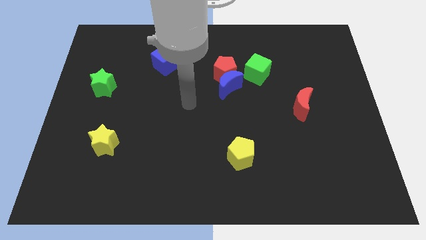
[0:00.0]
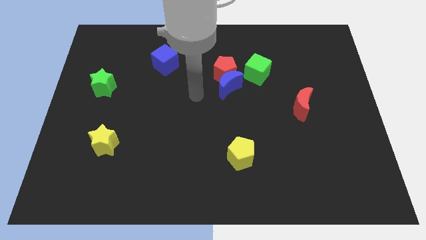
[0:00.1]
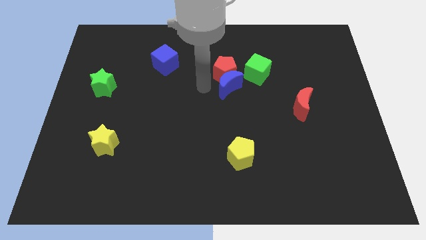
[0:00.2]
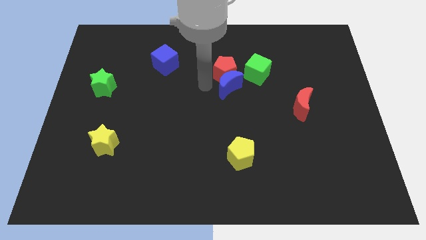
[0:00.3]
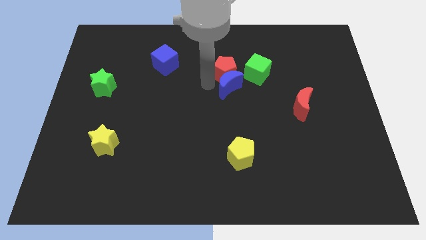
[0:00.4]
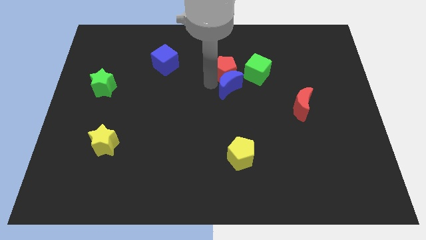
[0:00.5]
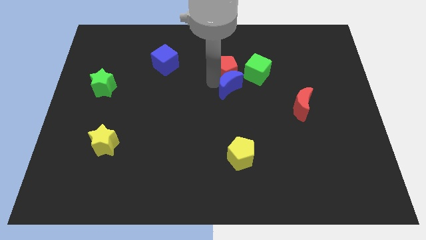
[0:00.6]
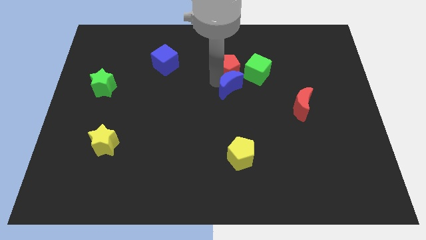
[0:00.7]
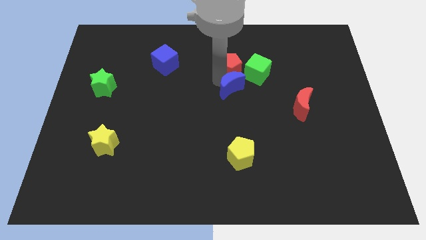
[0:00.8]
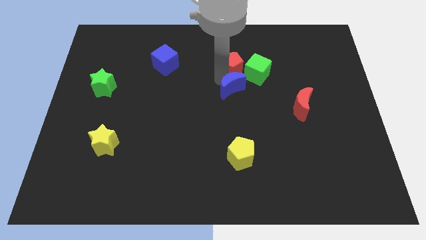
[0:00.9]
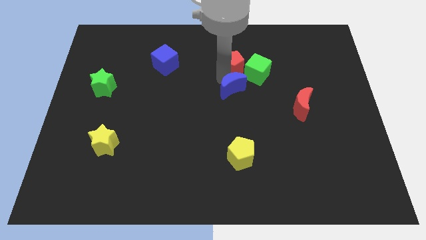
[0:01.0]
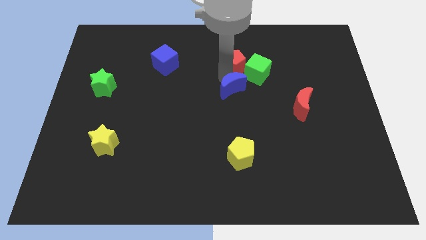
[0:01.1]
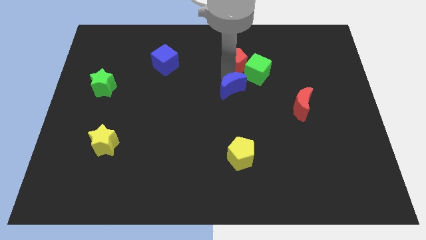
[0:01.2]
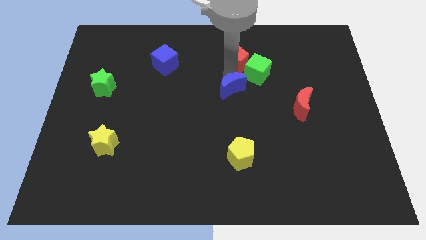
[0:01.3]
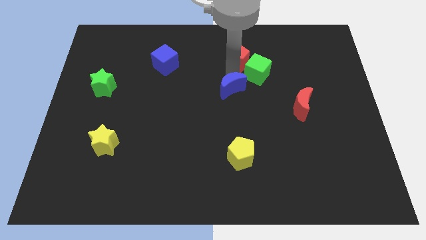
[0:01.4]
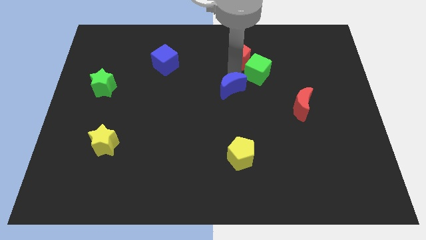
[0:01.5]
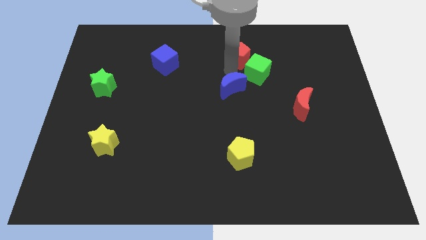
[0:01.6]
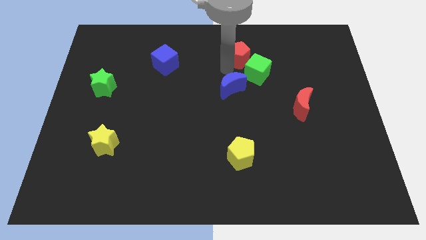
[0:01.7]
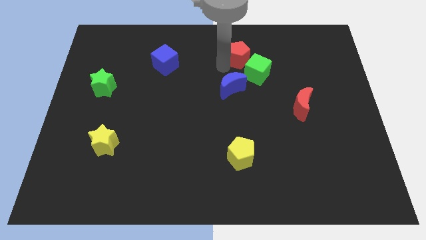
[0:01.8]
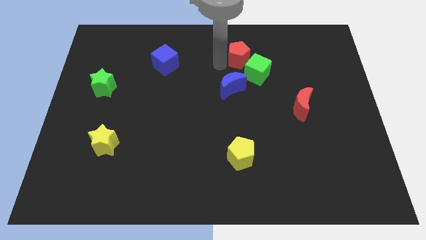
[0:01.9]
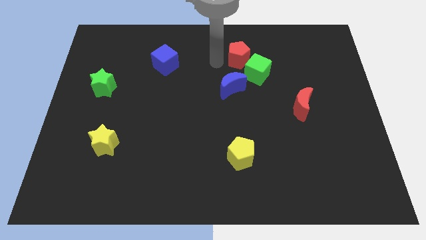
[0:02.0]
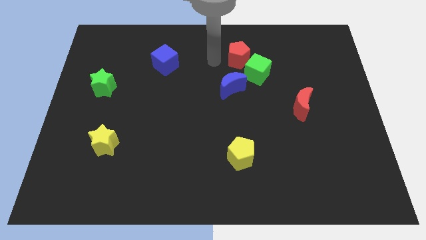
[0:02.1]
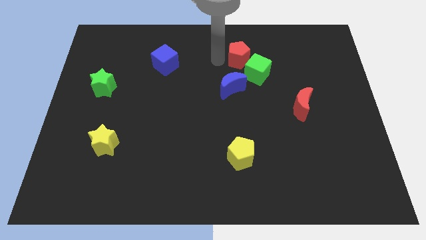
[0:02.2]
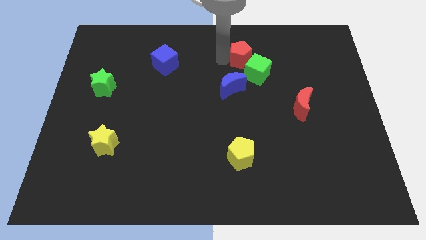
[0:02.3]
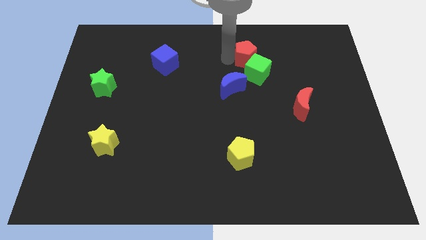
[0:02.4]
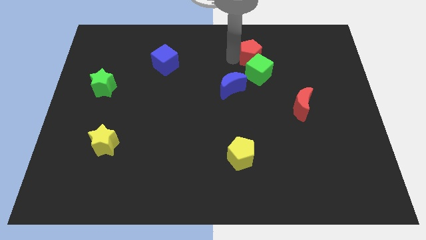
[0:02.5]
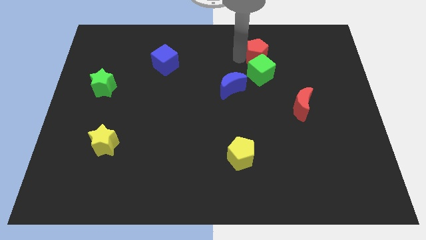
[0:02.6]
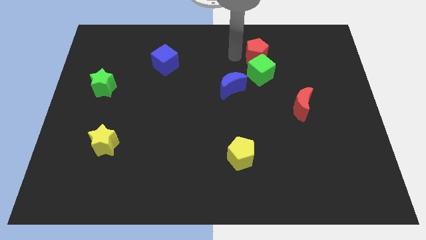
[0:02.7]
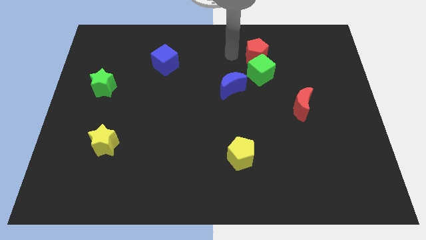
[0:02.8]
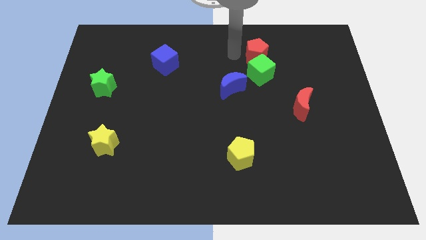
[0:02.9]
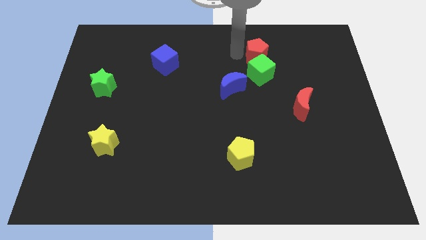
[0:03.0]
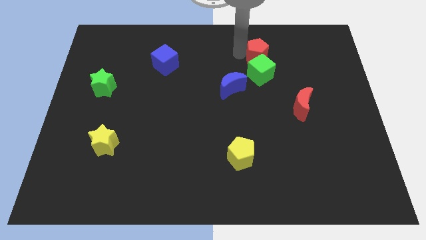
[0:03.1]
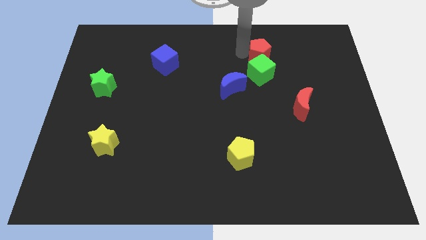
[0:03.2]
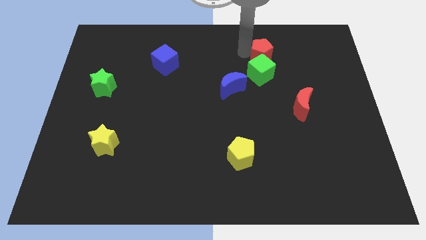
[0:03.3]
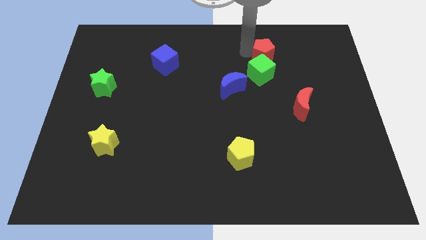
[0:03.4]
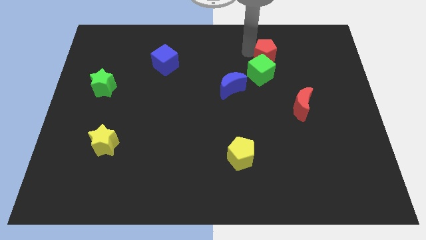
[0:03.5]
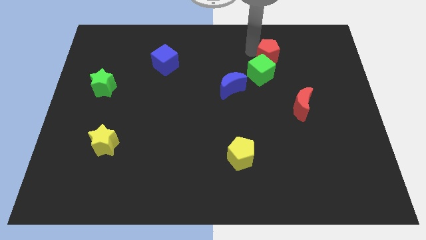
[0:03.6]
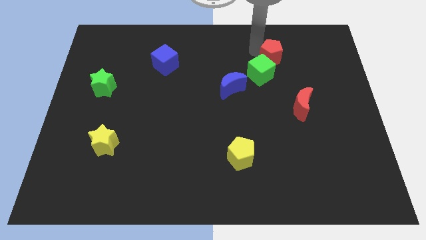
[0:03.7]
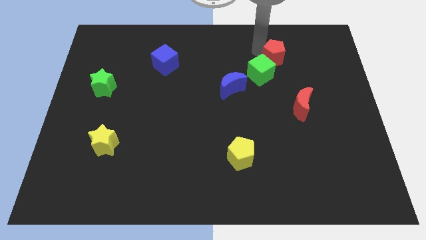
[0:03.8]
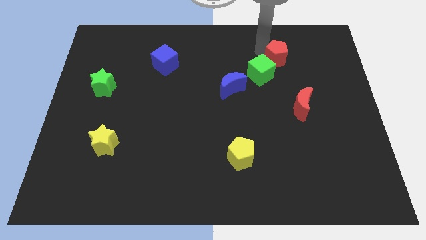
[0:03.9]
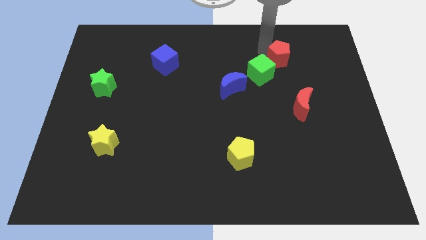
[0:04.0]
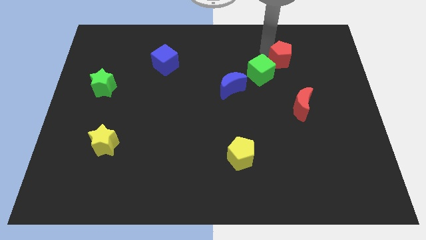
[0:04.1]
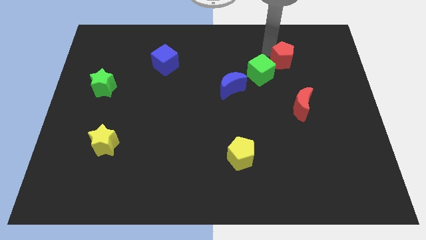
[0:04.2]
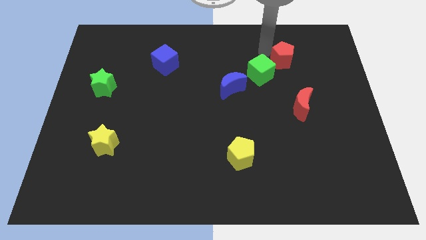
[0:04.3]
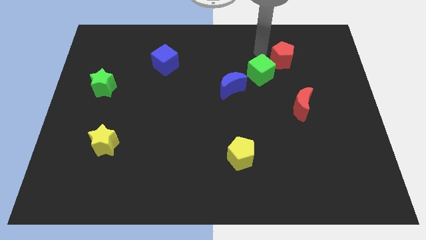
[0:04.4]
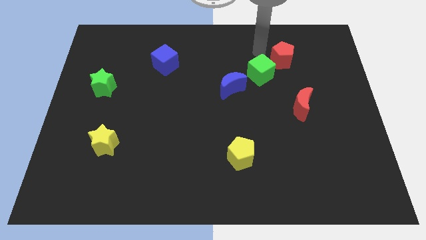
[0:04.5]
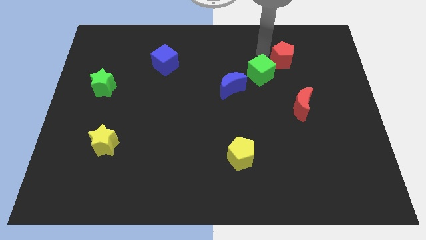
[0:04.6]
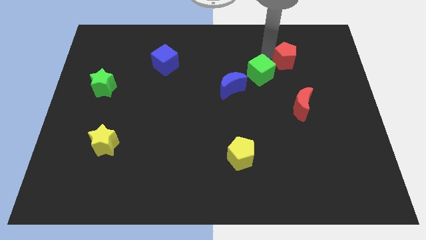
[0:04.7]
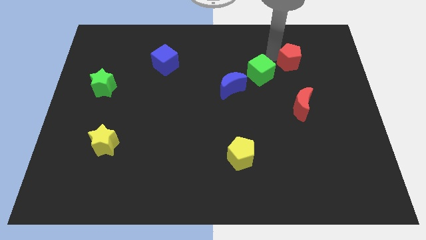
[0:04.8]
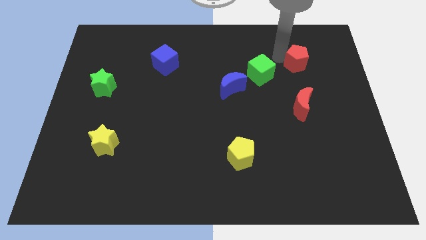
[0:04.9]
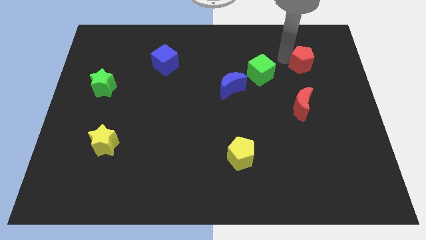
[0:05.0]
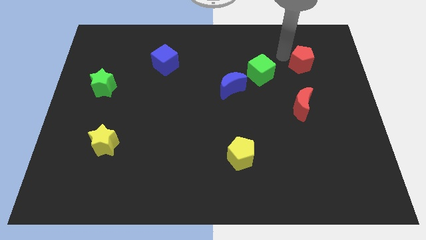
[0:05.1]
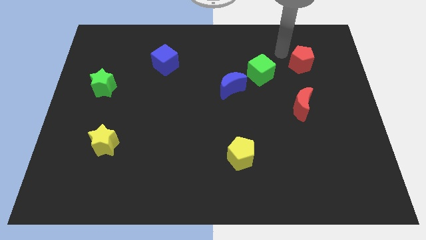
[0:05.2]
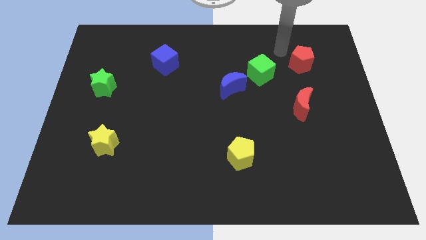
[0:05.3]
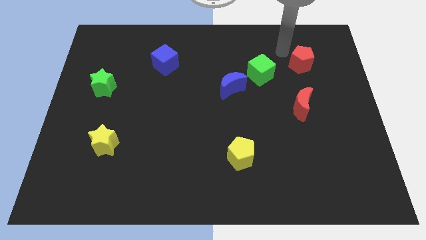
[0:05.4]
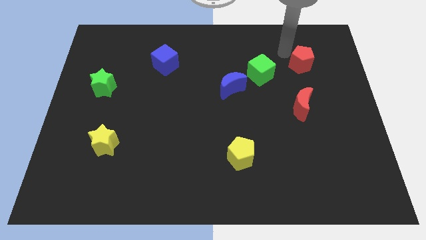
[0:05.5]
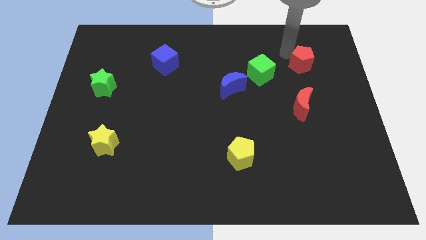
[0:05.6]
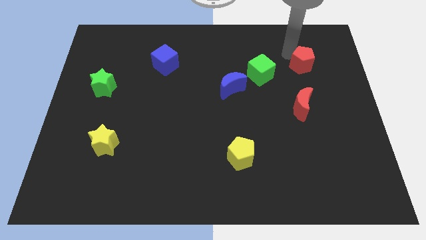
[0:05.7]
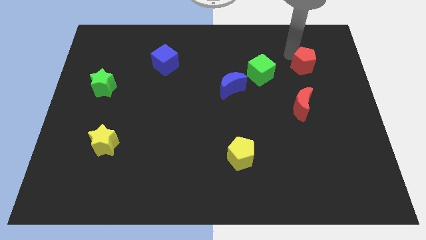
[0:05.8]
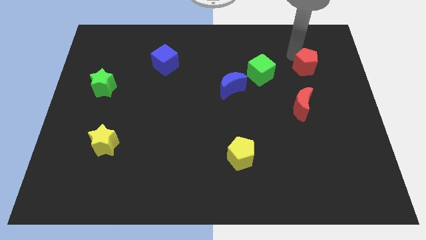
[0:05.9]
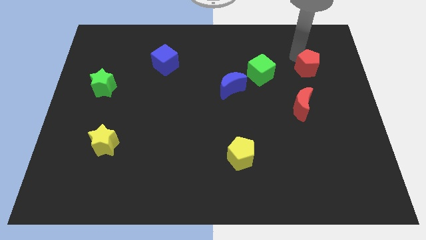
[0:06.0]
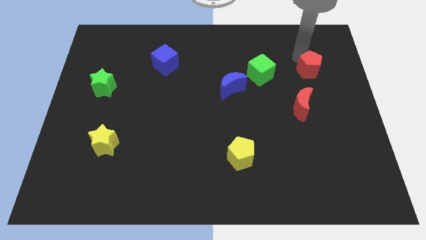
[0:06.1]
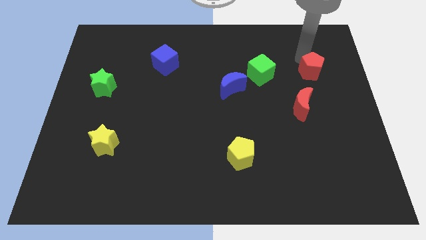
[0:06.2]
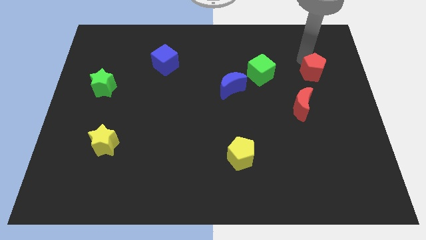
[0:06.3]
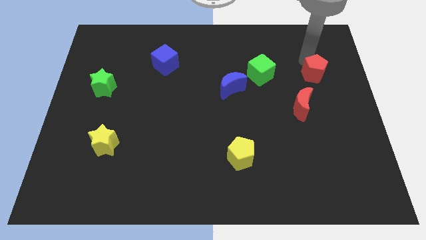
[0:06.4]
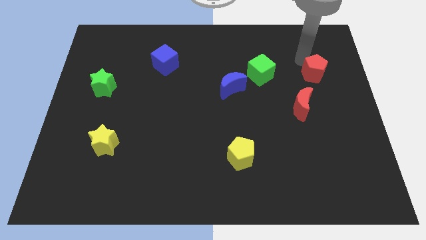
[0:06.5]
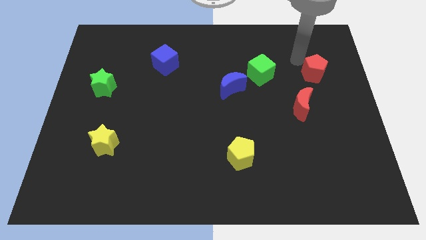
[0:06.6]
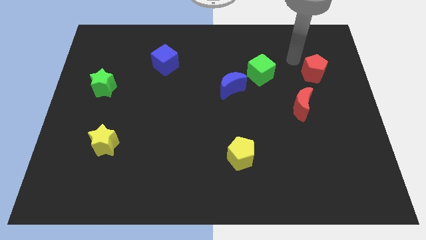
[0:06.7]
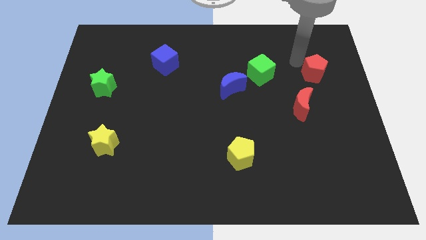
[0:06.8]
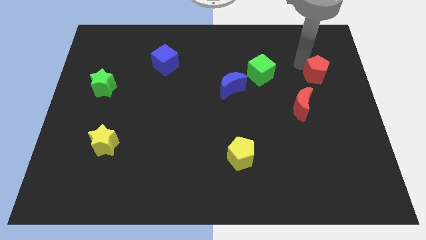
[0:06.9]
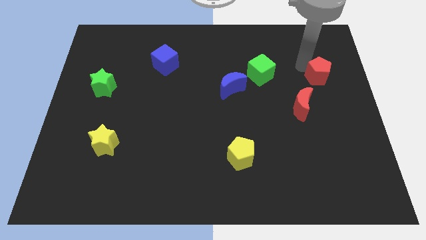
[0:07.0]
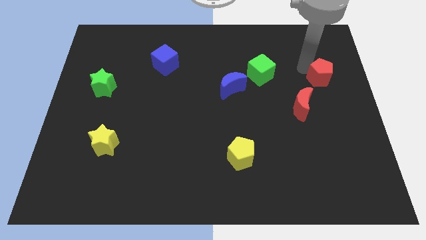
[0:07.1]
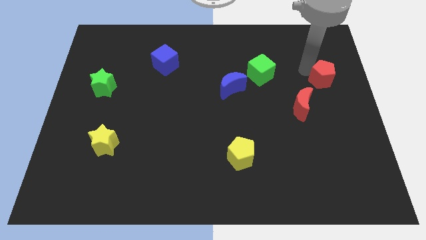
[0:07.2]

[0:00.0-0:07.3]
move the red pentagon to the right side of the board

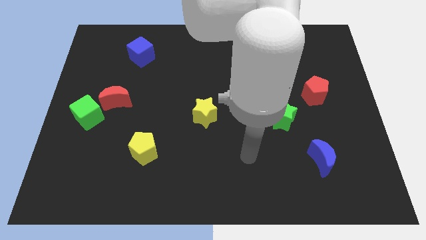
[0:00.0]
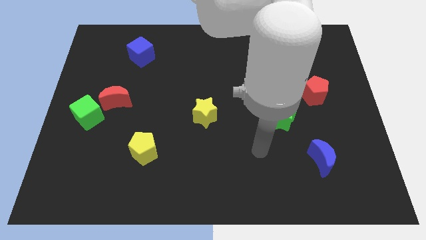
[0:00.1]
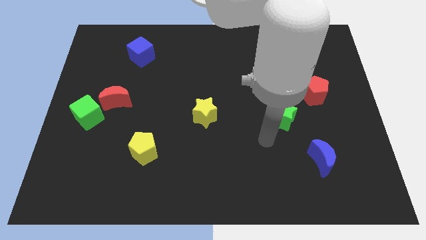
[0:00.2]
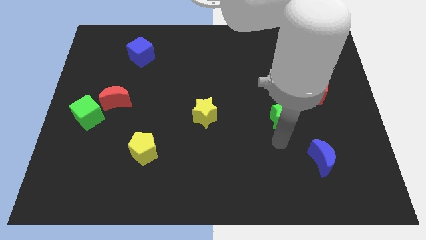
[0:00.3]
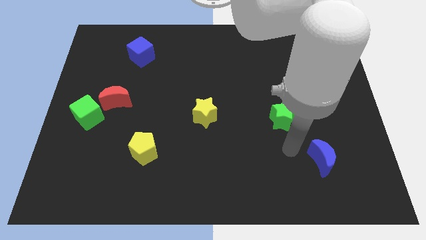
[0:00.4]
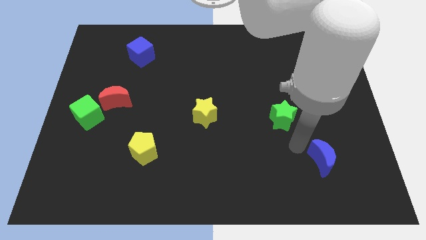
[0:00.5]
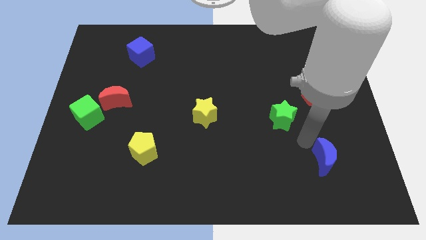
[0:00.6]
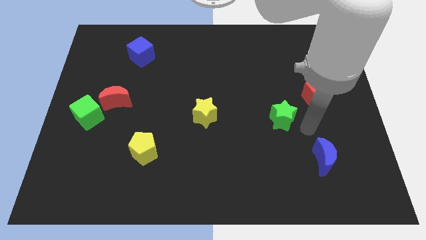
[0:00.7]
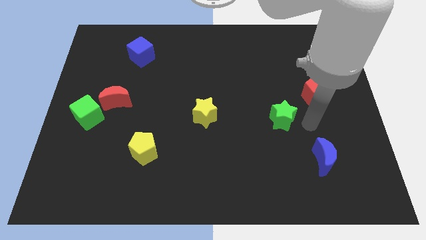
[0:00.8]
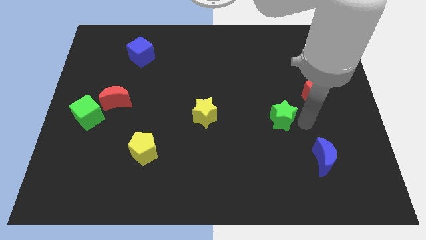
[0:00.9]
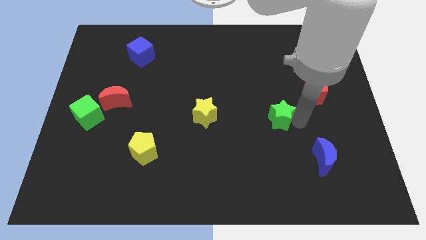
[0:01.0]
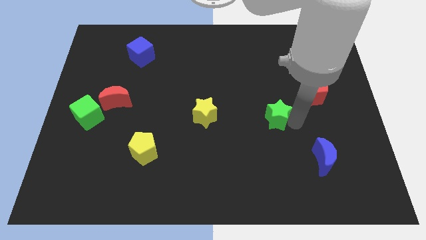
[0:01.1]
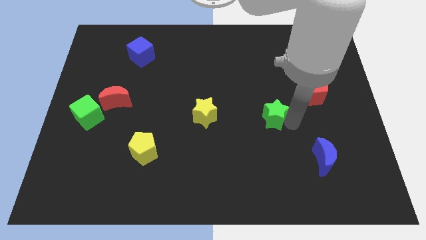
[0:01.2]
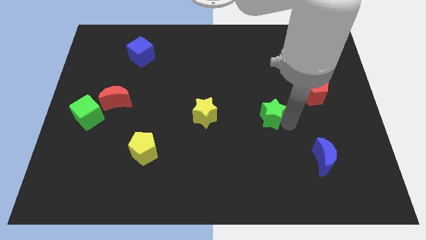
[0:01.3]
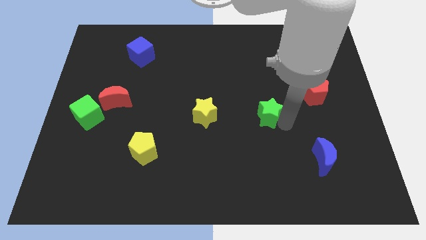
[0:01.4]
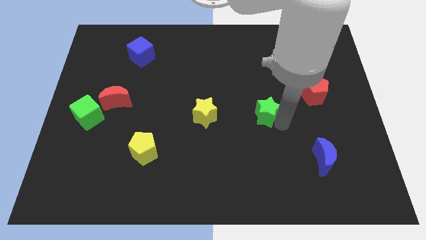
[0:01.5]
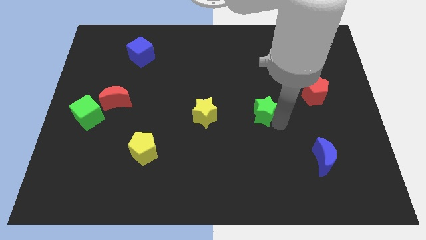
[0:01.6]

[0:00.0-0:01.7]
put the green star to the middle
